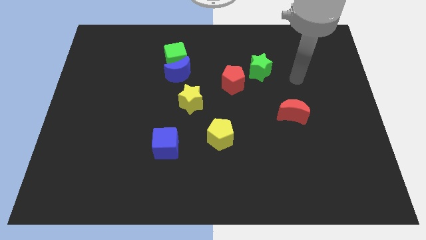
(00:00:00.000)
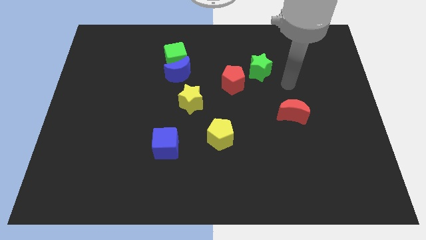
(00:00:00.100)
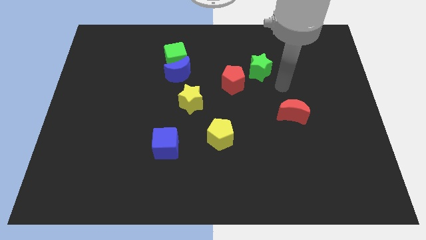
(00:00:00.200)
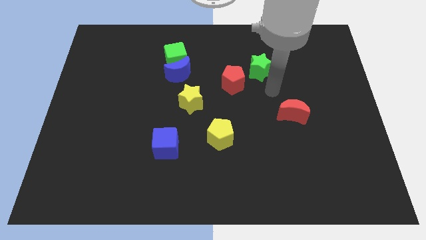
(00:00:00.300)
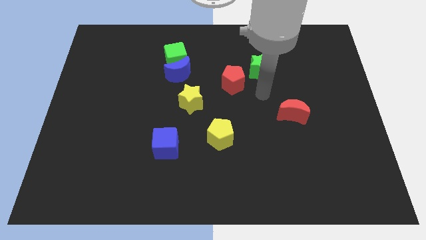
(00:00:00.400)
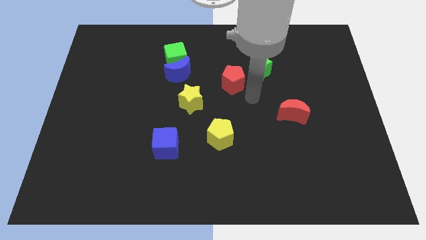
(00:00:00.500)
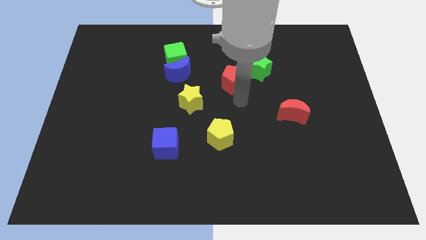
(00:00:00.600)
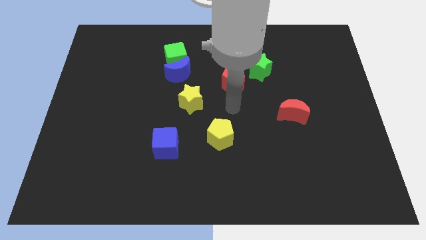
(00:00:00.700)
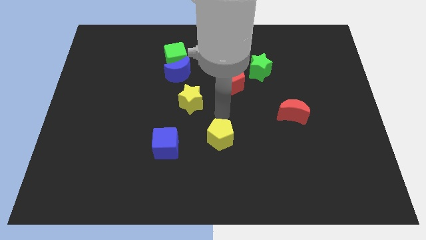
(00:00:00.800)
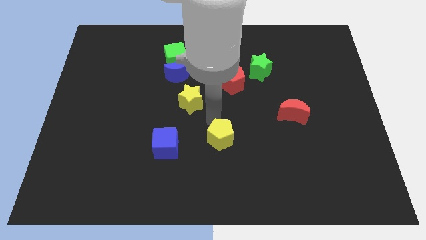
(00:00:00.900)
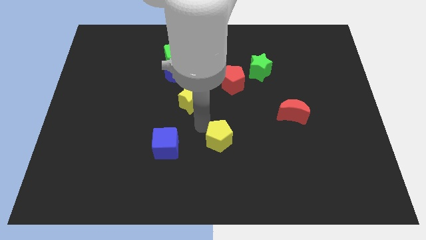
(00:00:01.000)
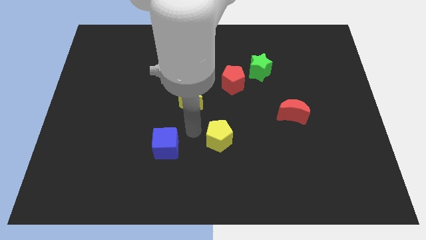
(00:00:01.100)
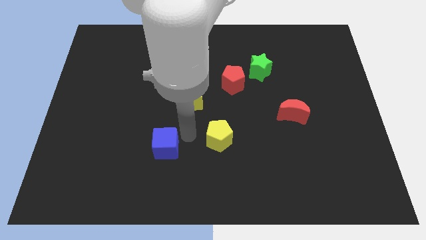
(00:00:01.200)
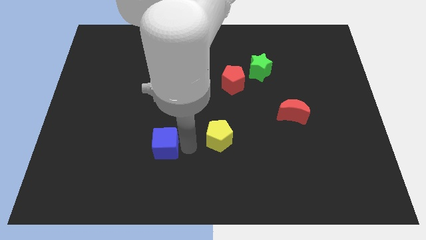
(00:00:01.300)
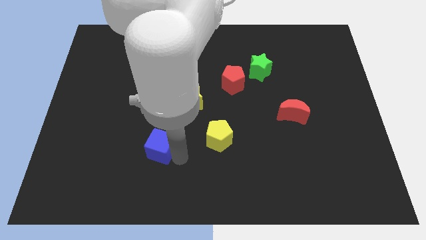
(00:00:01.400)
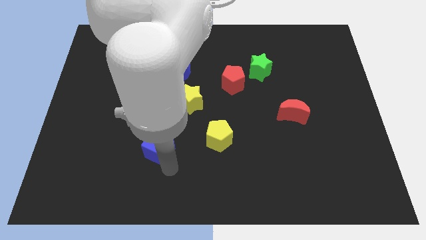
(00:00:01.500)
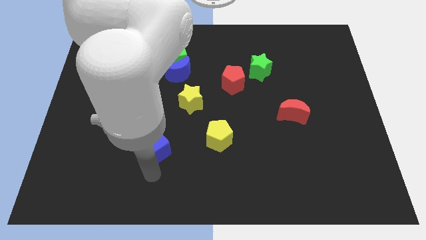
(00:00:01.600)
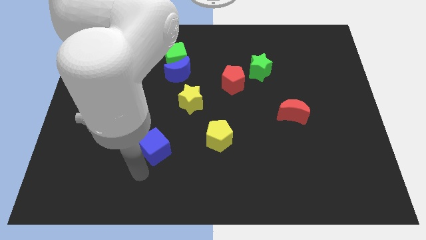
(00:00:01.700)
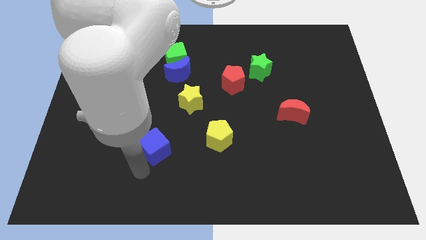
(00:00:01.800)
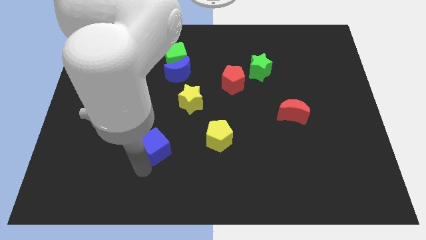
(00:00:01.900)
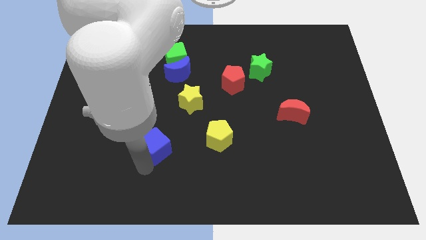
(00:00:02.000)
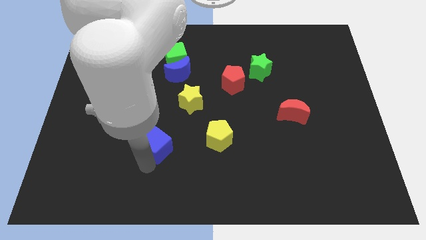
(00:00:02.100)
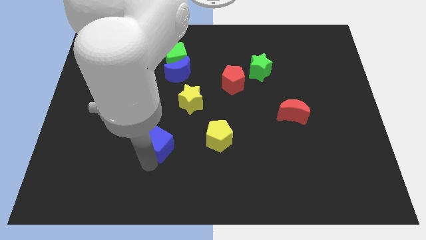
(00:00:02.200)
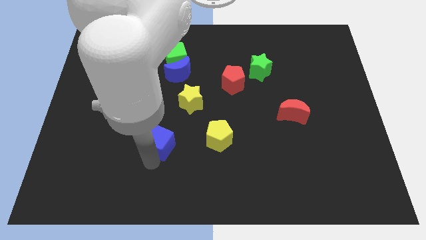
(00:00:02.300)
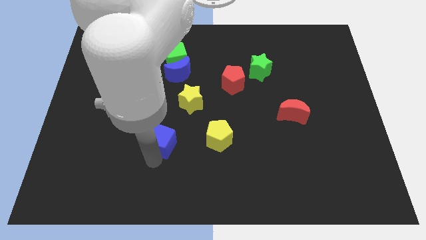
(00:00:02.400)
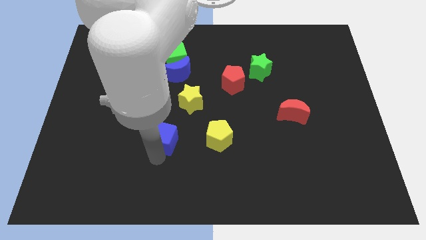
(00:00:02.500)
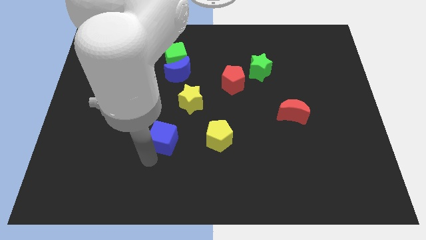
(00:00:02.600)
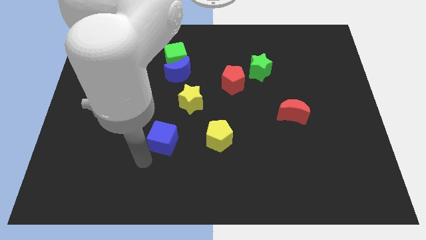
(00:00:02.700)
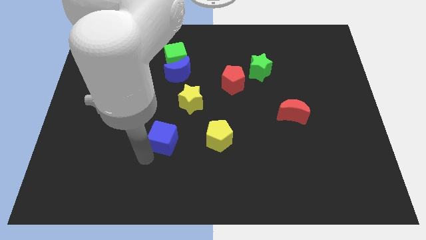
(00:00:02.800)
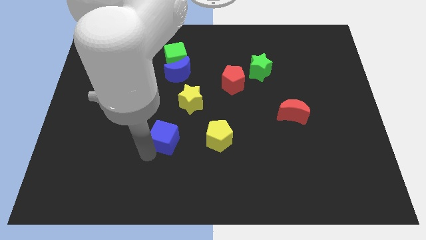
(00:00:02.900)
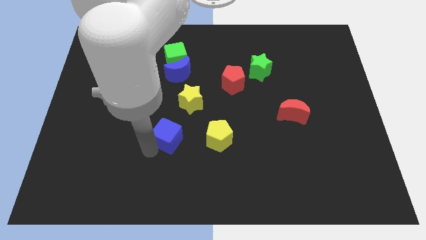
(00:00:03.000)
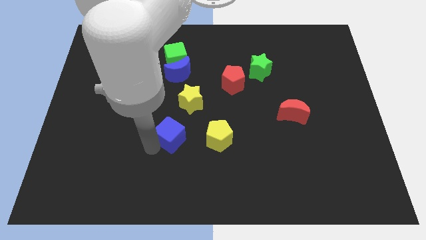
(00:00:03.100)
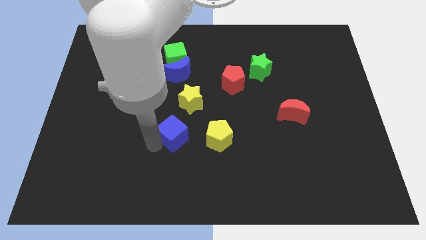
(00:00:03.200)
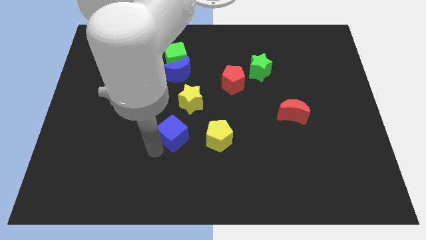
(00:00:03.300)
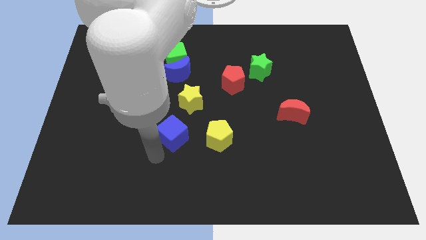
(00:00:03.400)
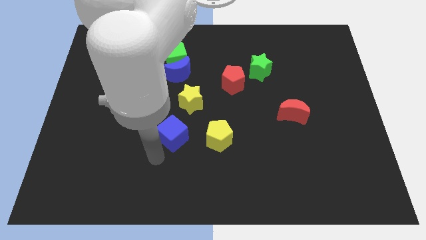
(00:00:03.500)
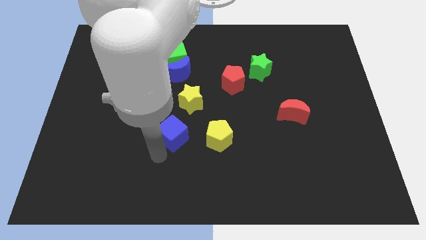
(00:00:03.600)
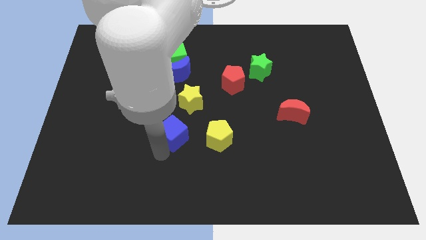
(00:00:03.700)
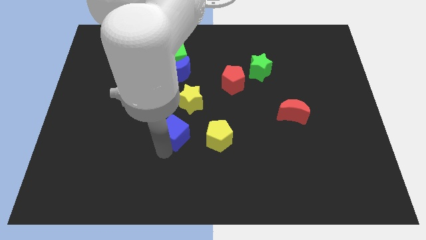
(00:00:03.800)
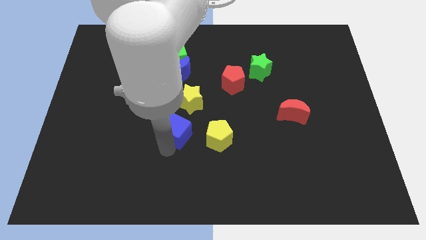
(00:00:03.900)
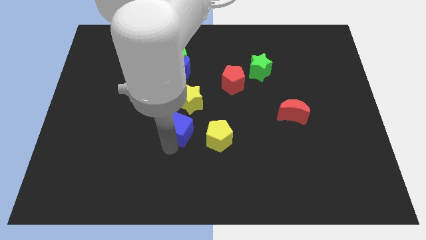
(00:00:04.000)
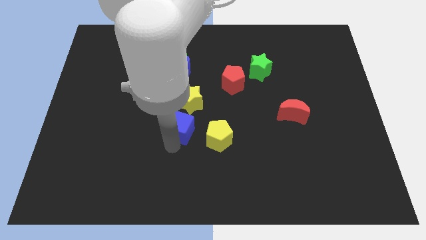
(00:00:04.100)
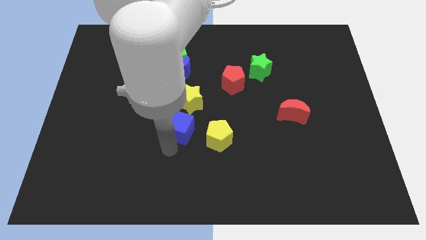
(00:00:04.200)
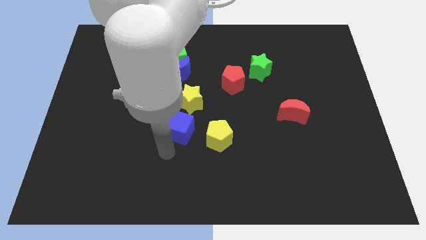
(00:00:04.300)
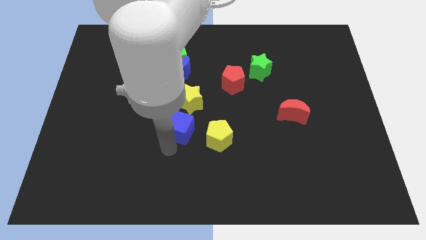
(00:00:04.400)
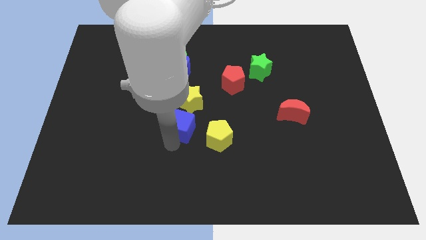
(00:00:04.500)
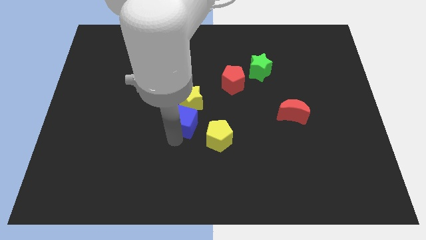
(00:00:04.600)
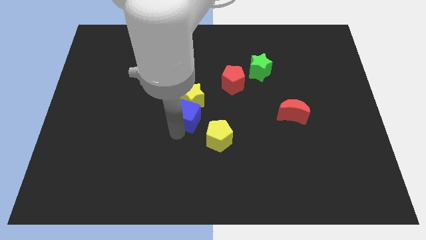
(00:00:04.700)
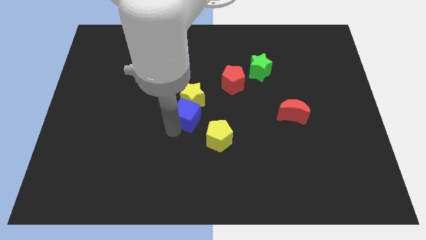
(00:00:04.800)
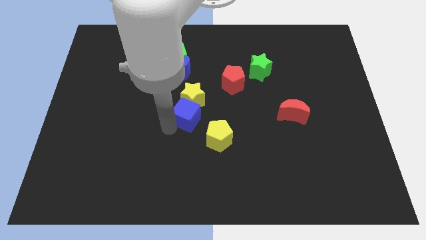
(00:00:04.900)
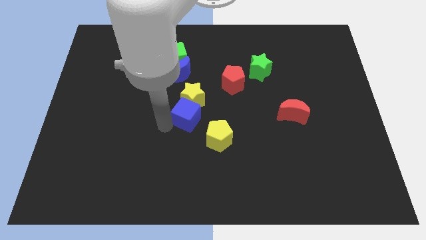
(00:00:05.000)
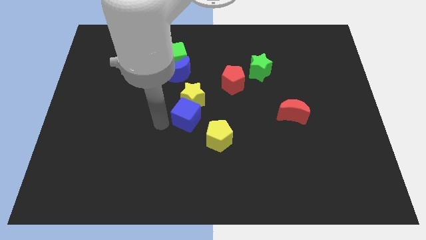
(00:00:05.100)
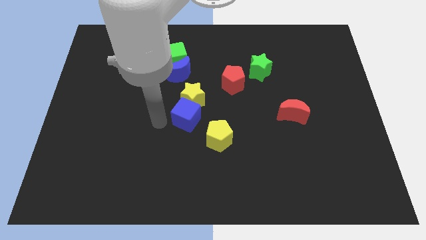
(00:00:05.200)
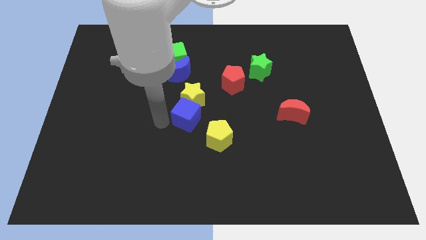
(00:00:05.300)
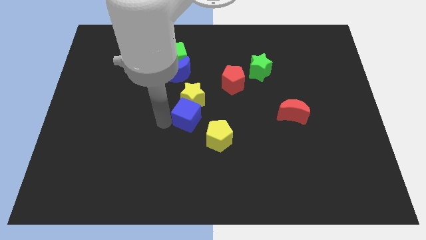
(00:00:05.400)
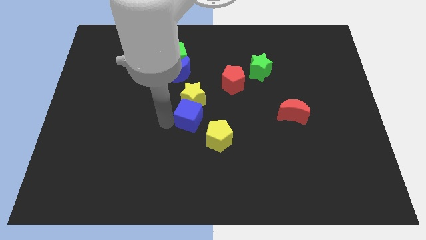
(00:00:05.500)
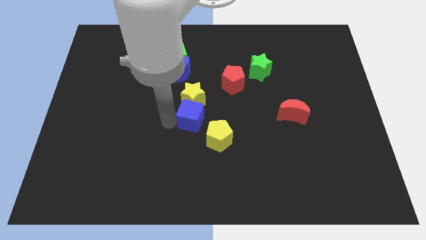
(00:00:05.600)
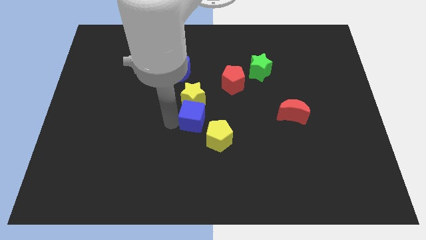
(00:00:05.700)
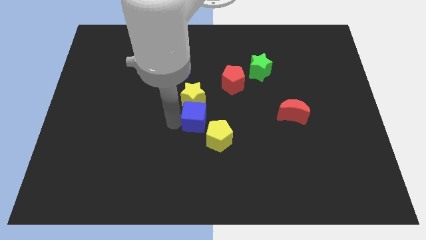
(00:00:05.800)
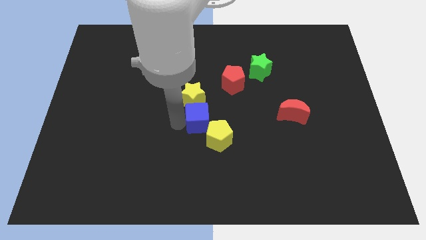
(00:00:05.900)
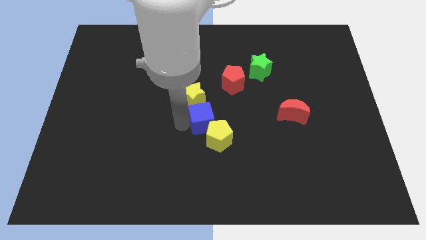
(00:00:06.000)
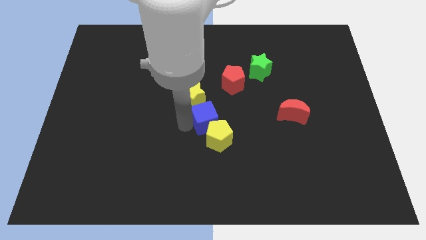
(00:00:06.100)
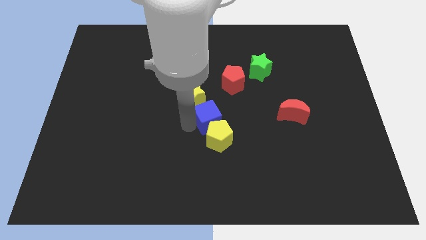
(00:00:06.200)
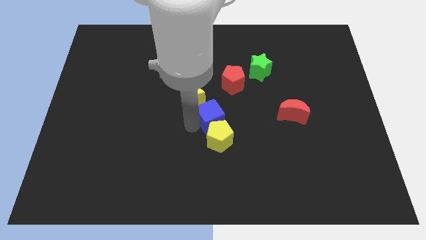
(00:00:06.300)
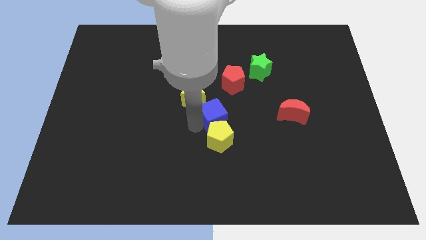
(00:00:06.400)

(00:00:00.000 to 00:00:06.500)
push the blue cube diagonally up and to the right of the yellow pentagon
